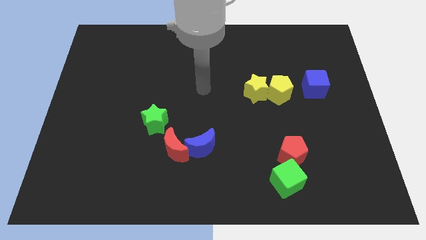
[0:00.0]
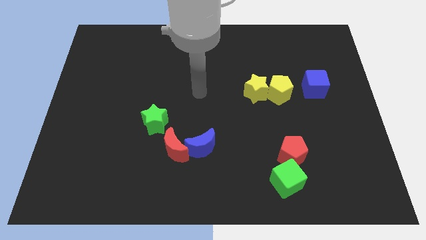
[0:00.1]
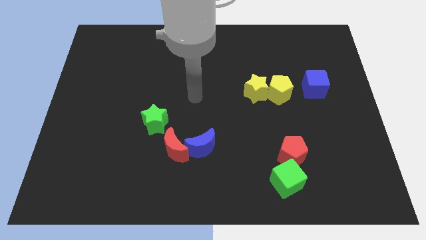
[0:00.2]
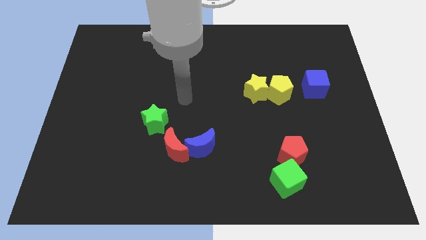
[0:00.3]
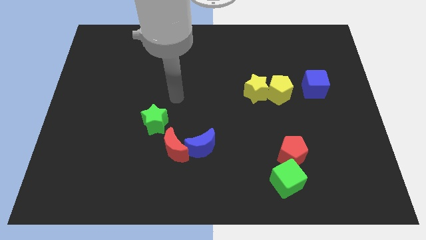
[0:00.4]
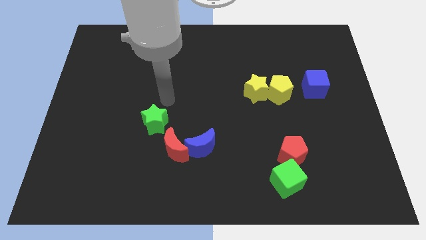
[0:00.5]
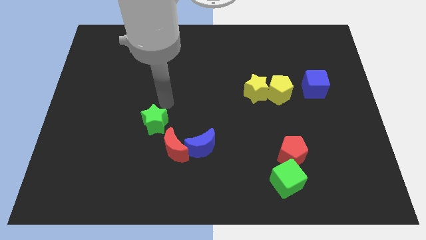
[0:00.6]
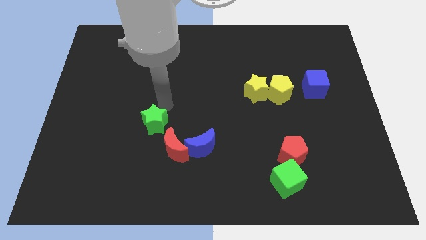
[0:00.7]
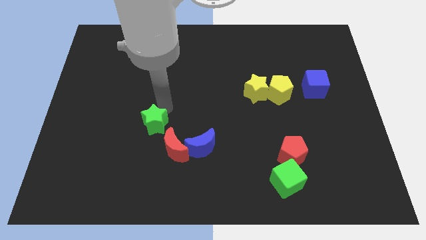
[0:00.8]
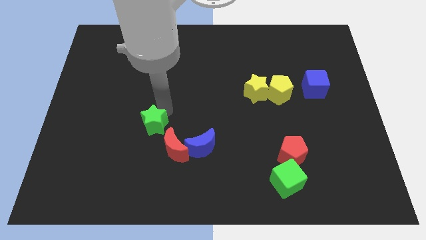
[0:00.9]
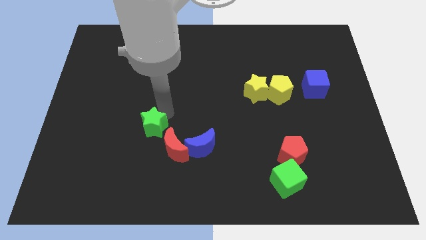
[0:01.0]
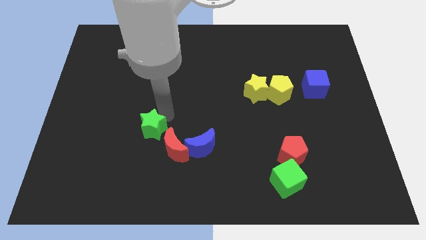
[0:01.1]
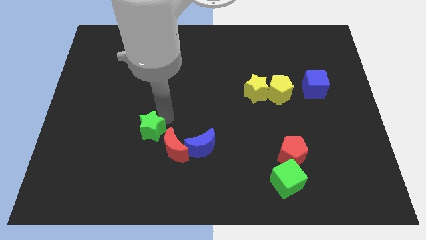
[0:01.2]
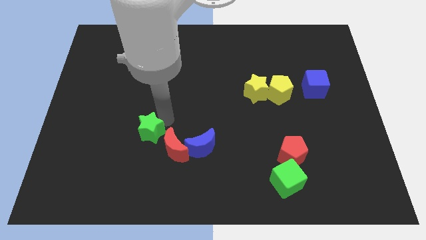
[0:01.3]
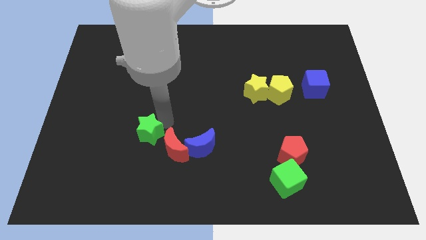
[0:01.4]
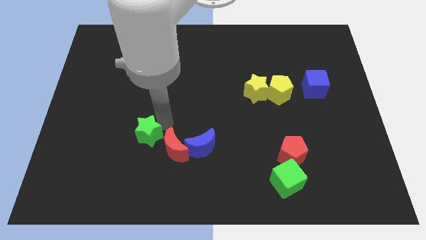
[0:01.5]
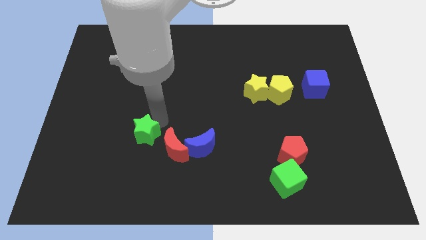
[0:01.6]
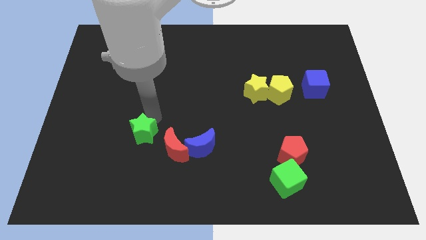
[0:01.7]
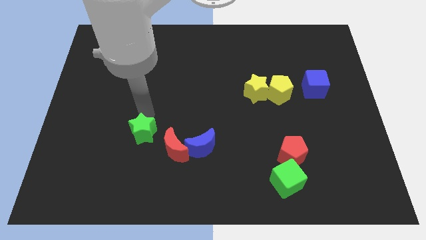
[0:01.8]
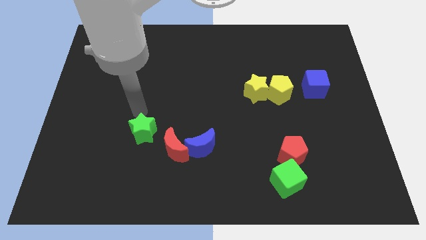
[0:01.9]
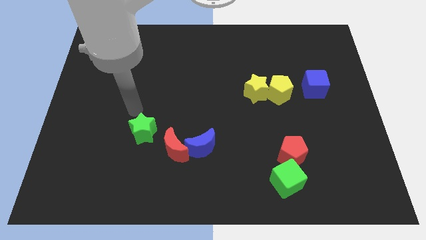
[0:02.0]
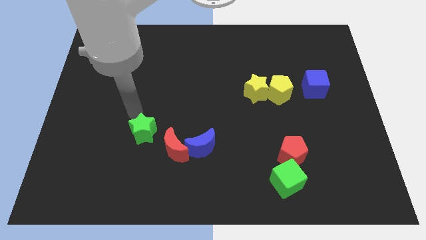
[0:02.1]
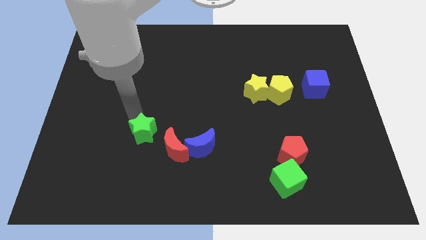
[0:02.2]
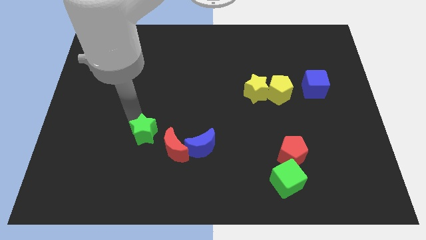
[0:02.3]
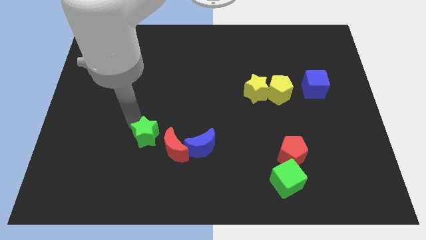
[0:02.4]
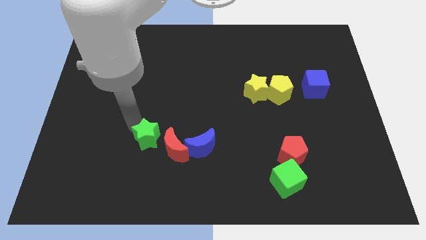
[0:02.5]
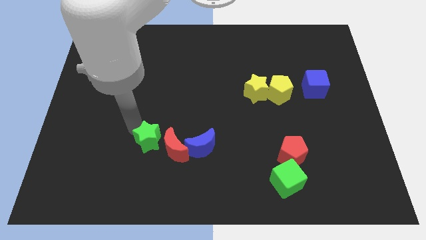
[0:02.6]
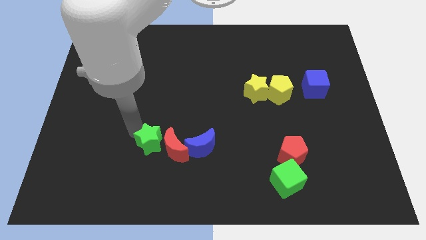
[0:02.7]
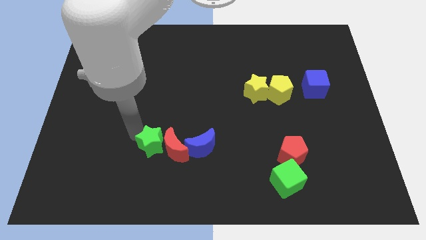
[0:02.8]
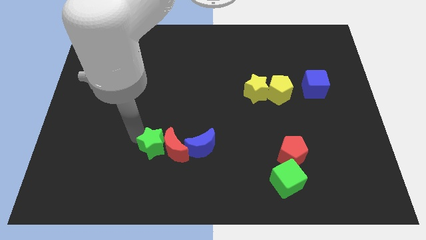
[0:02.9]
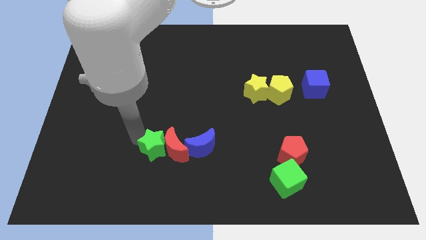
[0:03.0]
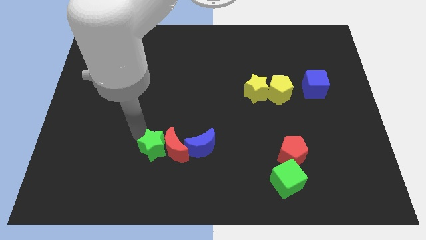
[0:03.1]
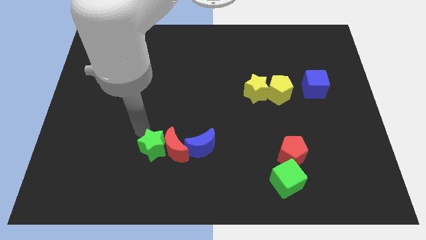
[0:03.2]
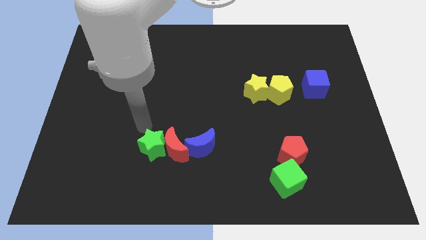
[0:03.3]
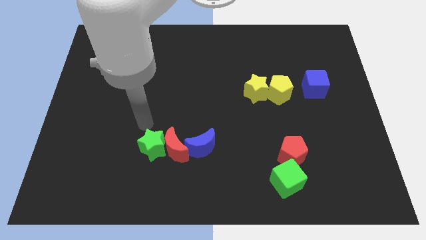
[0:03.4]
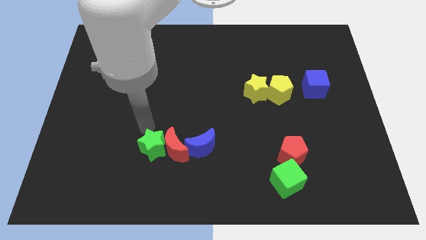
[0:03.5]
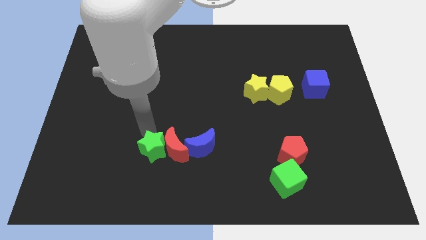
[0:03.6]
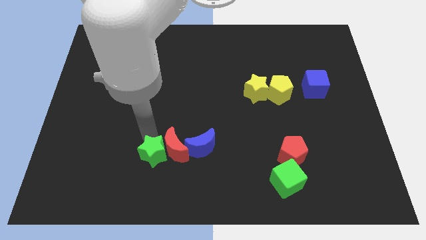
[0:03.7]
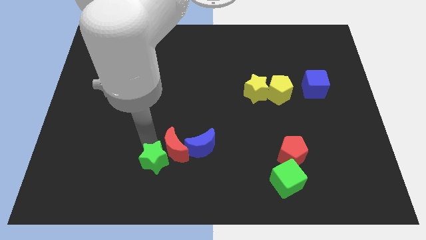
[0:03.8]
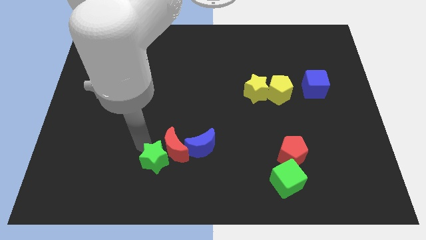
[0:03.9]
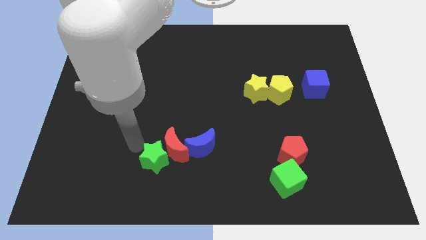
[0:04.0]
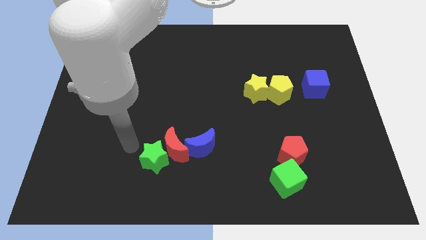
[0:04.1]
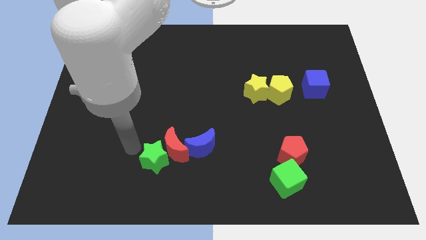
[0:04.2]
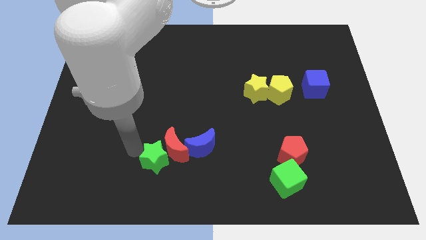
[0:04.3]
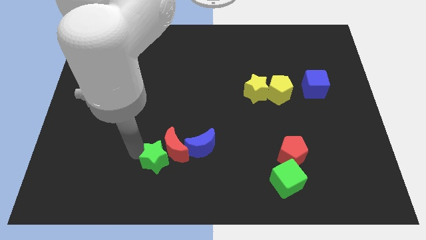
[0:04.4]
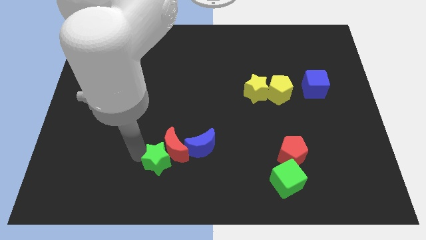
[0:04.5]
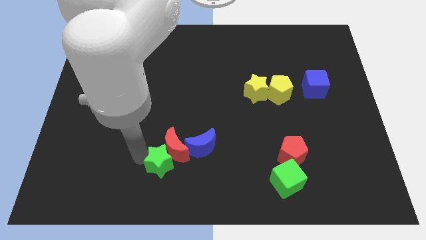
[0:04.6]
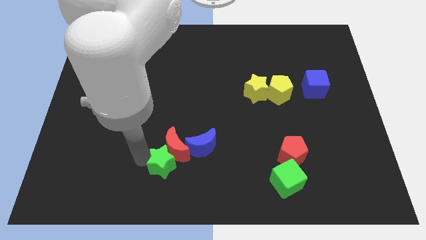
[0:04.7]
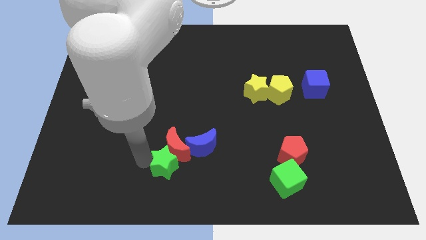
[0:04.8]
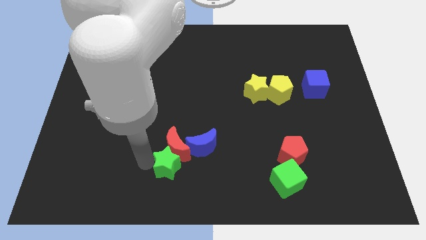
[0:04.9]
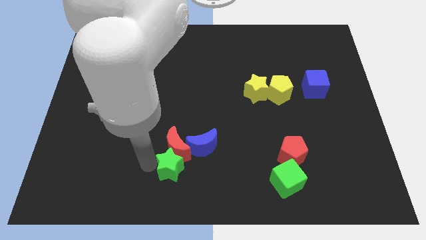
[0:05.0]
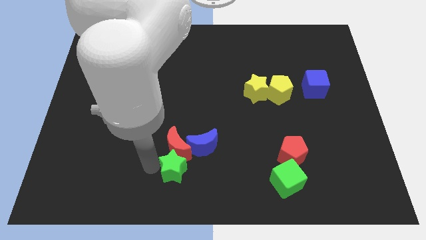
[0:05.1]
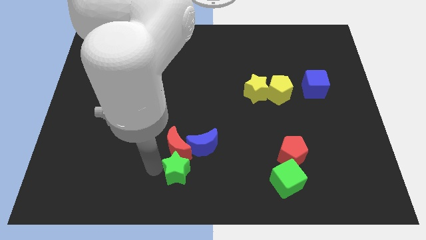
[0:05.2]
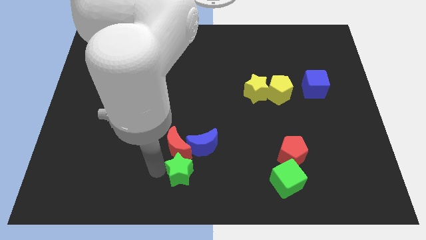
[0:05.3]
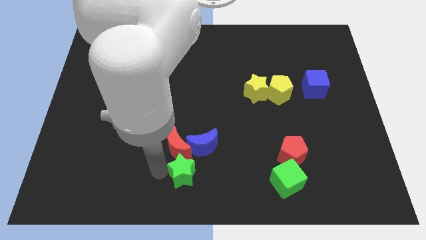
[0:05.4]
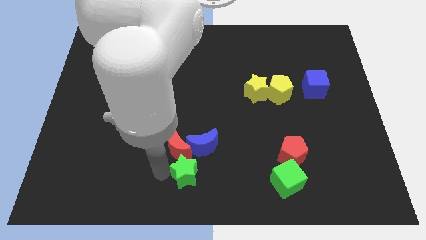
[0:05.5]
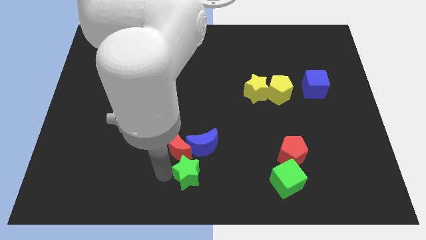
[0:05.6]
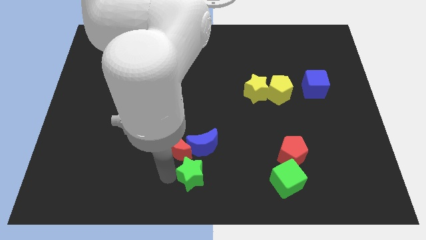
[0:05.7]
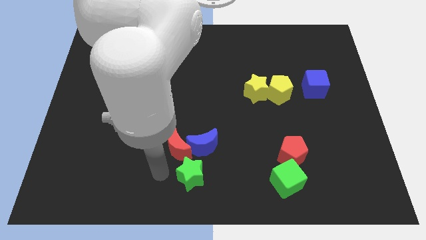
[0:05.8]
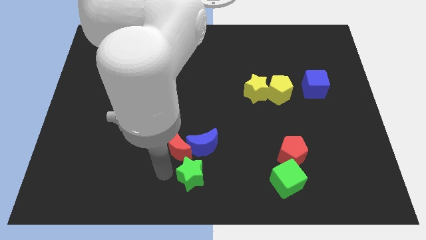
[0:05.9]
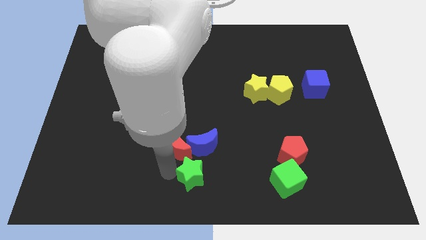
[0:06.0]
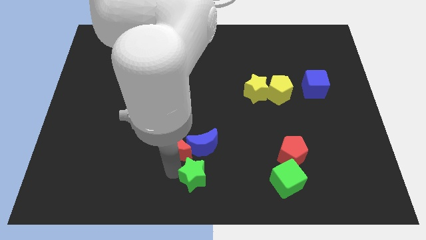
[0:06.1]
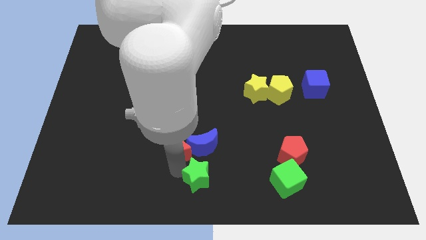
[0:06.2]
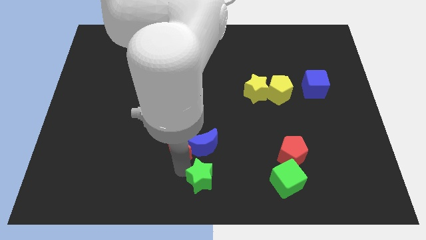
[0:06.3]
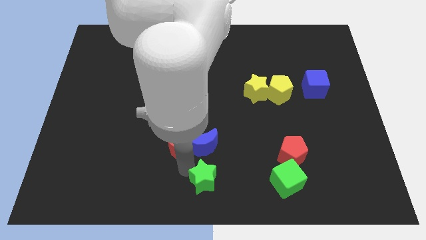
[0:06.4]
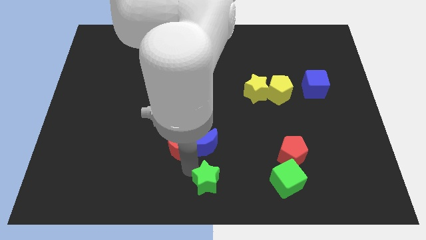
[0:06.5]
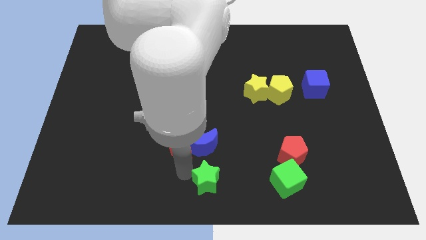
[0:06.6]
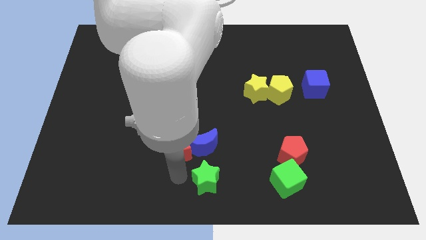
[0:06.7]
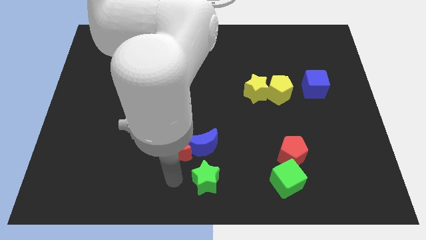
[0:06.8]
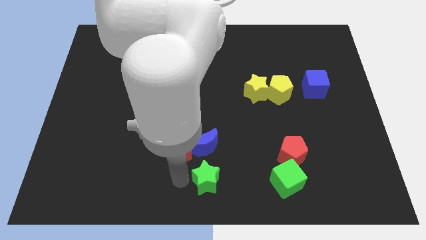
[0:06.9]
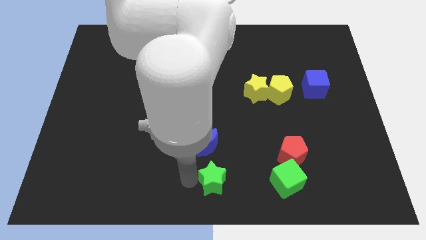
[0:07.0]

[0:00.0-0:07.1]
slide the green star to the left of the green cube
